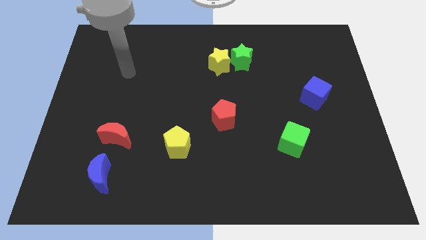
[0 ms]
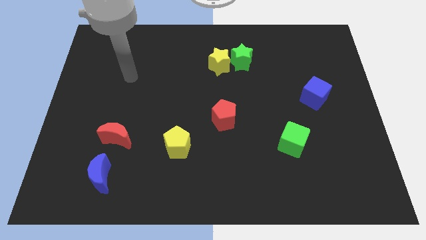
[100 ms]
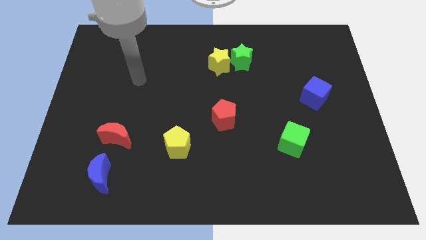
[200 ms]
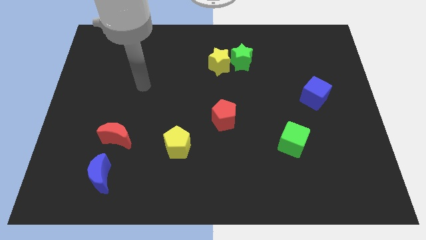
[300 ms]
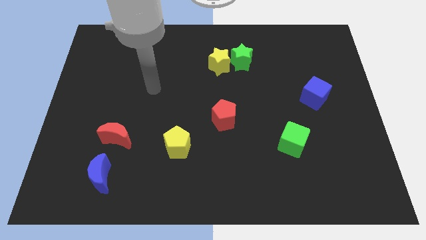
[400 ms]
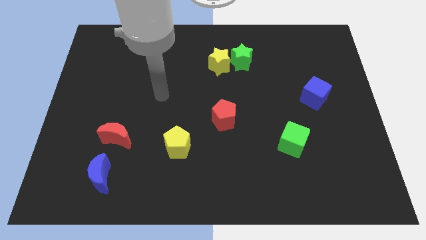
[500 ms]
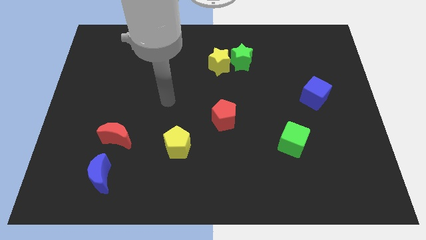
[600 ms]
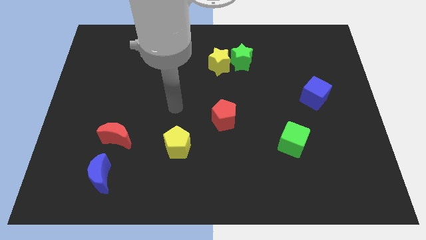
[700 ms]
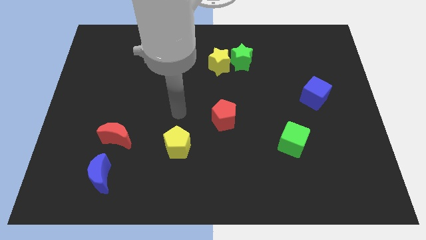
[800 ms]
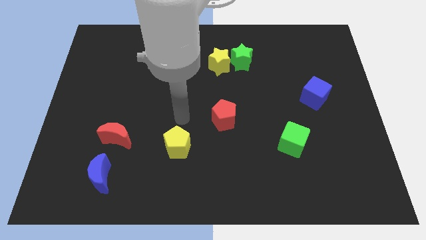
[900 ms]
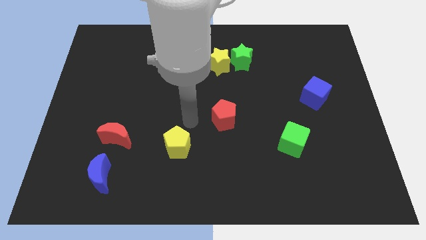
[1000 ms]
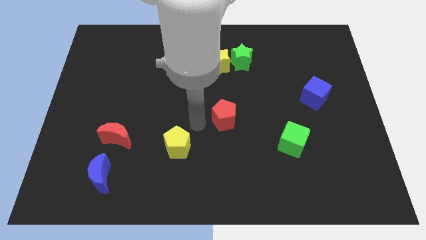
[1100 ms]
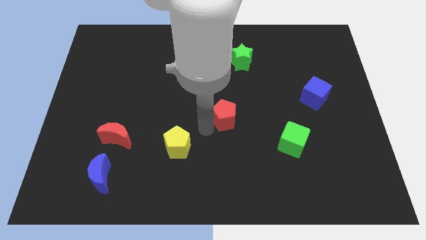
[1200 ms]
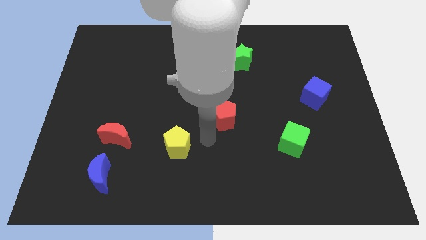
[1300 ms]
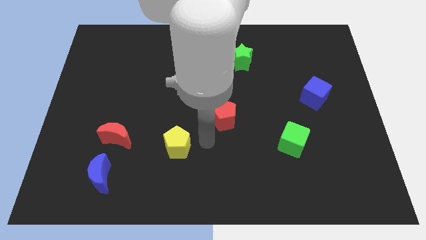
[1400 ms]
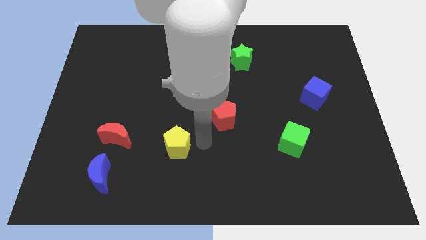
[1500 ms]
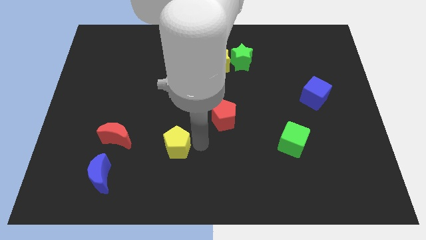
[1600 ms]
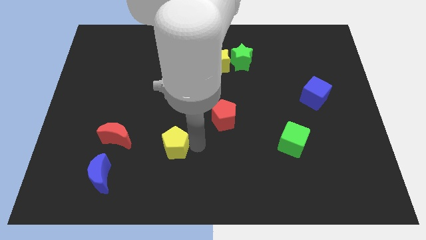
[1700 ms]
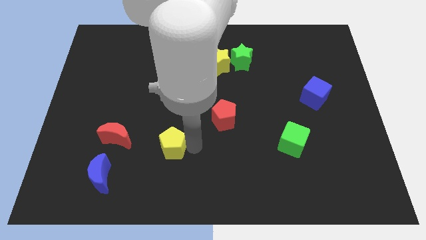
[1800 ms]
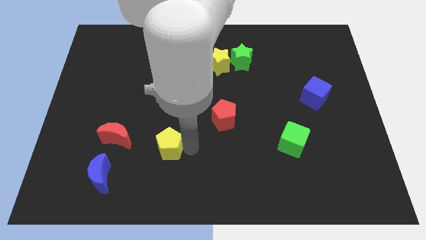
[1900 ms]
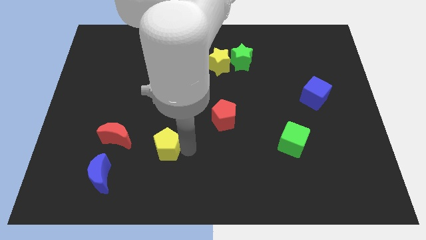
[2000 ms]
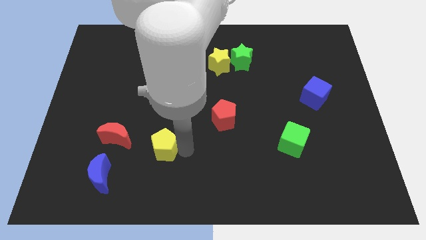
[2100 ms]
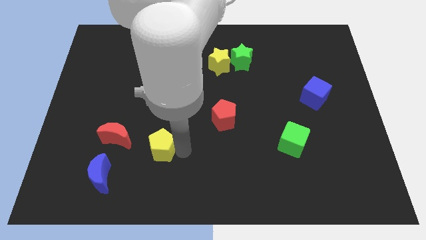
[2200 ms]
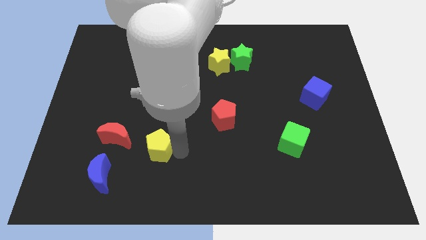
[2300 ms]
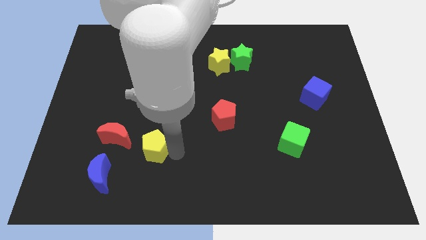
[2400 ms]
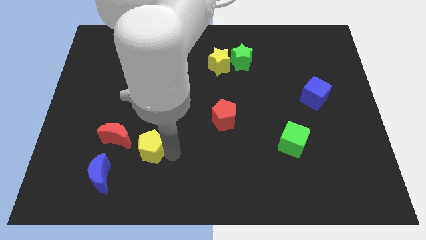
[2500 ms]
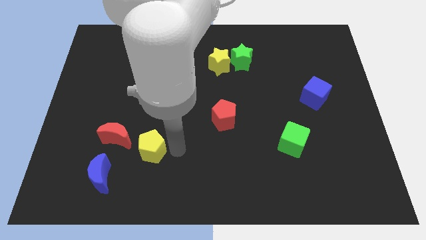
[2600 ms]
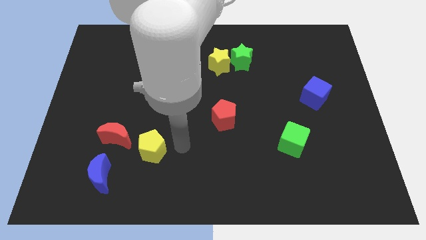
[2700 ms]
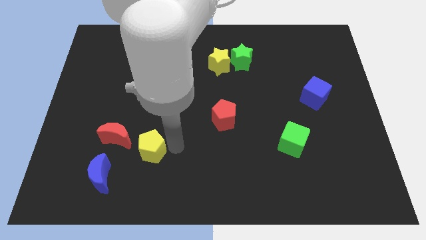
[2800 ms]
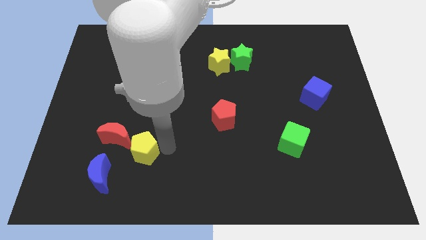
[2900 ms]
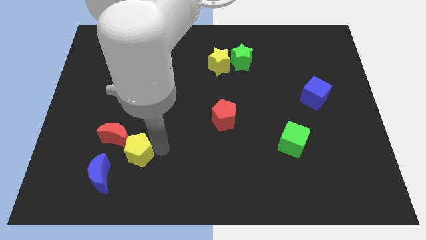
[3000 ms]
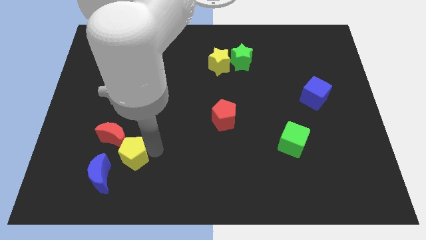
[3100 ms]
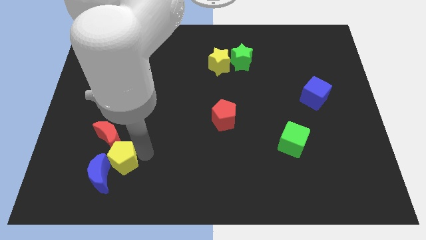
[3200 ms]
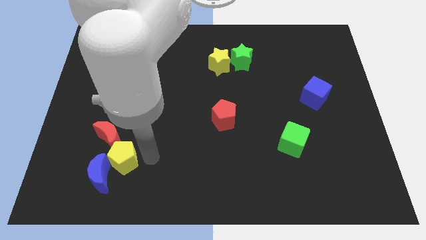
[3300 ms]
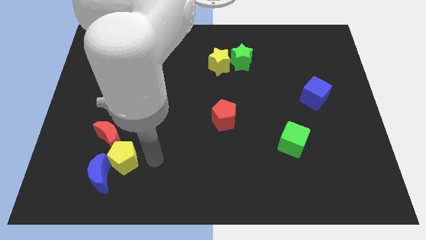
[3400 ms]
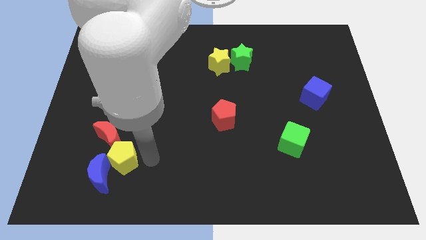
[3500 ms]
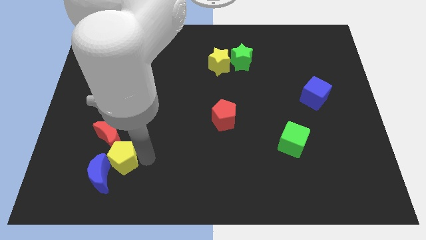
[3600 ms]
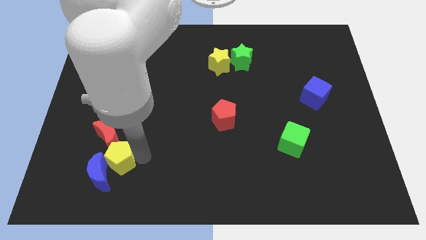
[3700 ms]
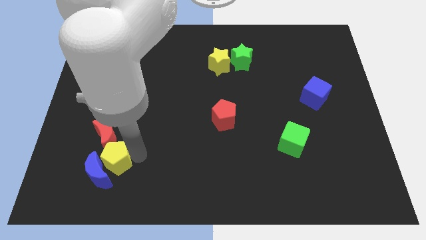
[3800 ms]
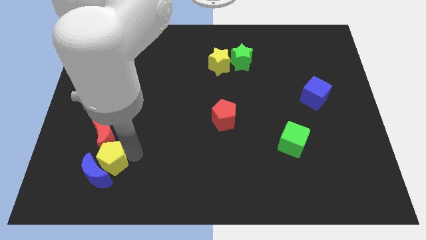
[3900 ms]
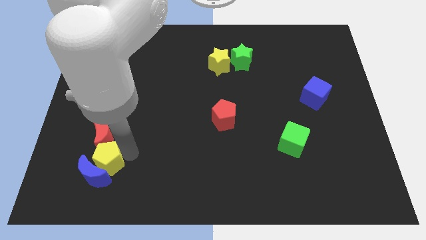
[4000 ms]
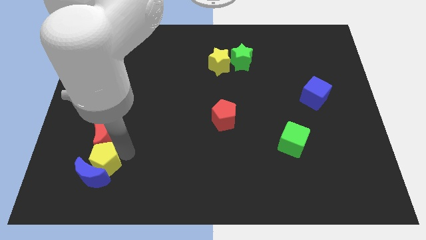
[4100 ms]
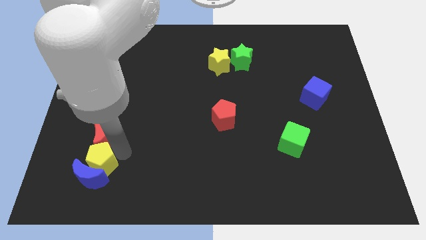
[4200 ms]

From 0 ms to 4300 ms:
put the yellow pentagon diagonally down and to the left of the red moon

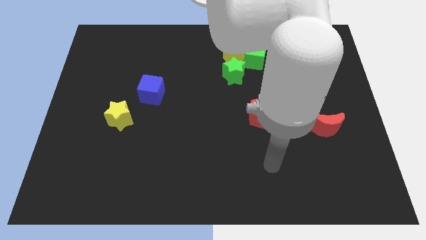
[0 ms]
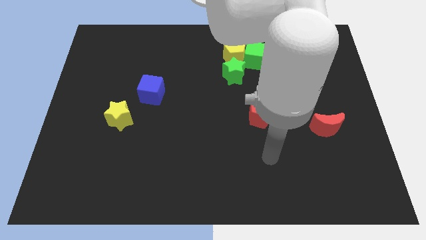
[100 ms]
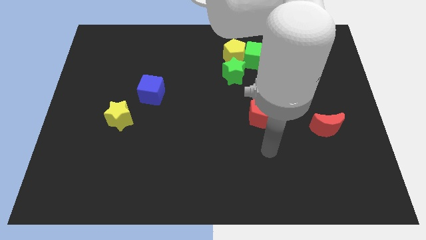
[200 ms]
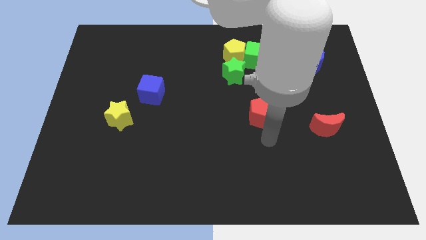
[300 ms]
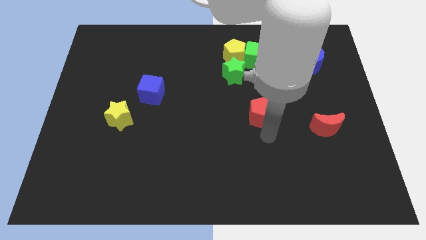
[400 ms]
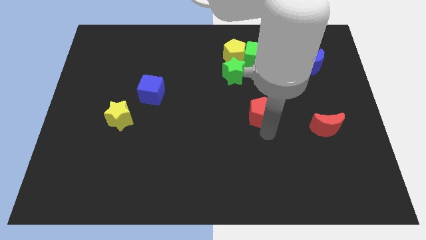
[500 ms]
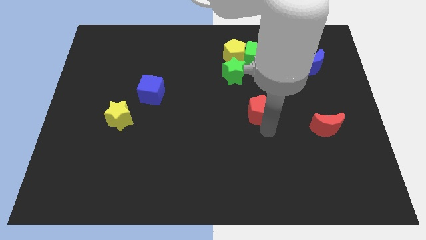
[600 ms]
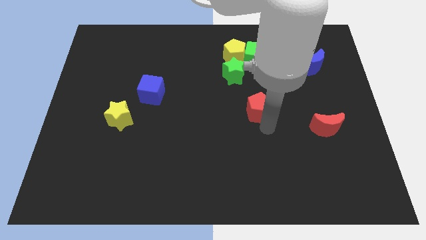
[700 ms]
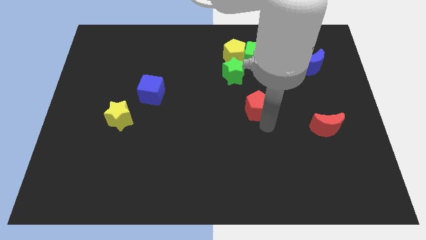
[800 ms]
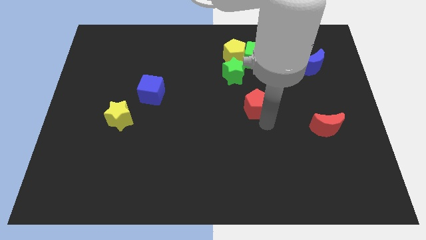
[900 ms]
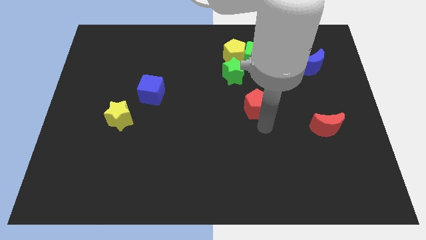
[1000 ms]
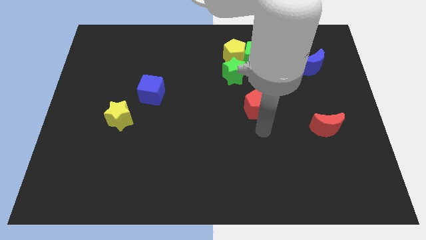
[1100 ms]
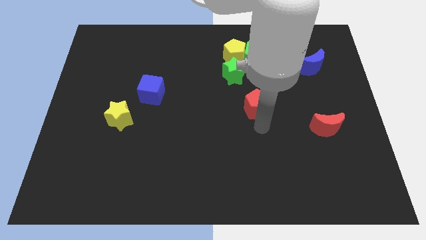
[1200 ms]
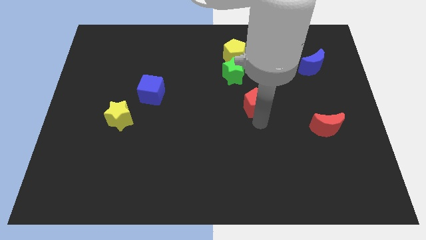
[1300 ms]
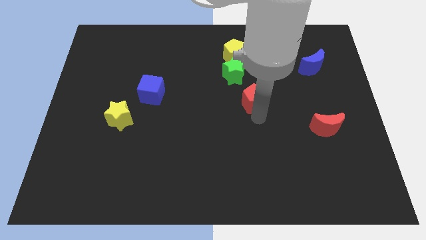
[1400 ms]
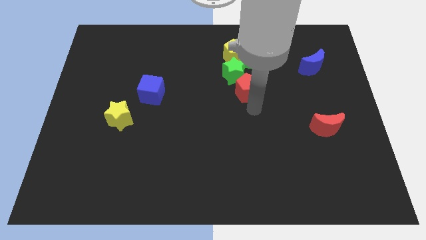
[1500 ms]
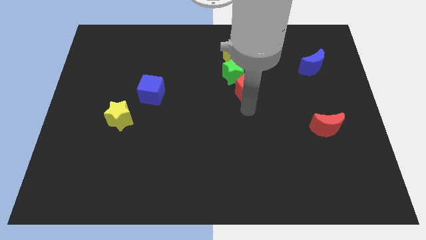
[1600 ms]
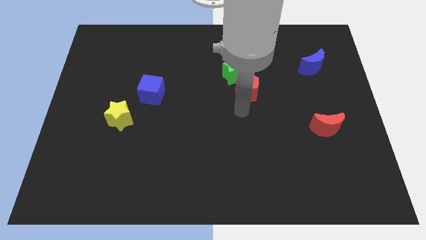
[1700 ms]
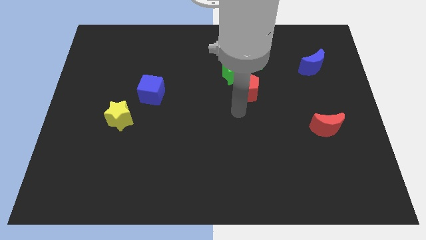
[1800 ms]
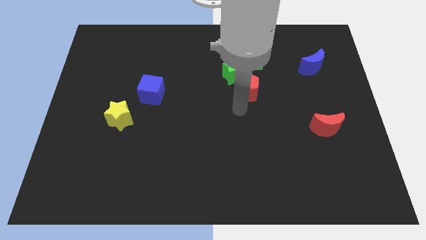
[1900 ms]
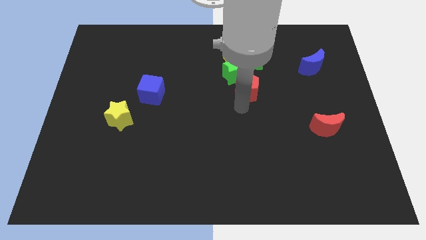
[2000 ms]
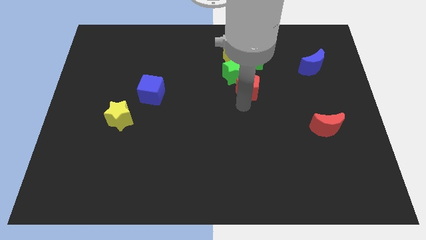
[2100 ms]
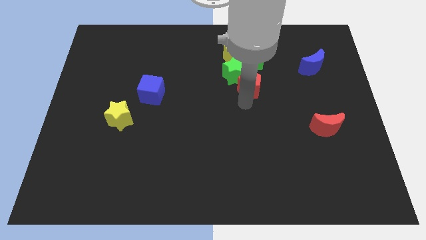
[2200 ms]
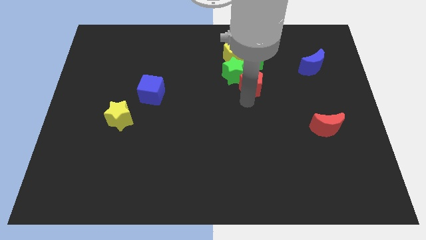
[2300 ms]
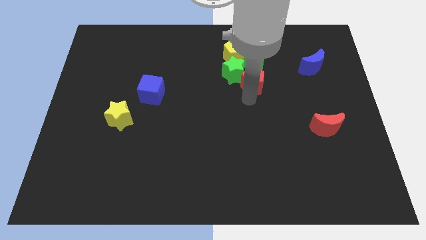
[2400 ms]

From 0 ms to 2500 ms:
push the red pentagon diagonally down and to the right of the yellow pentagon

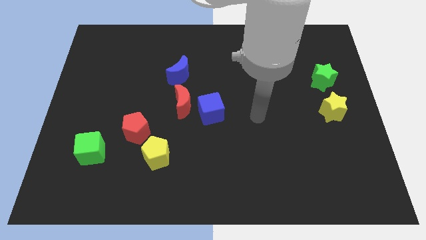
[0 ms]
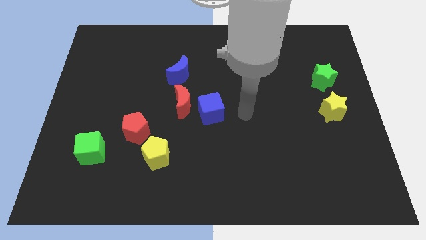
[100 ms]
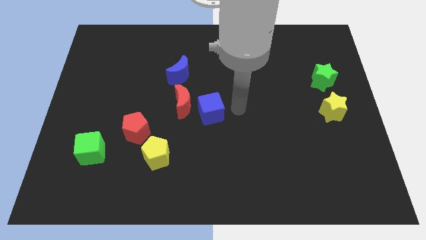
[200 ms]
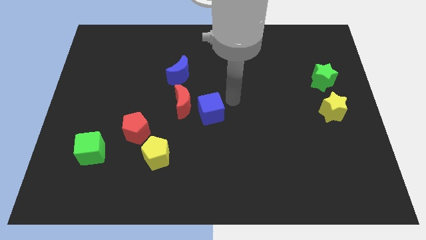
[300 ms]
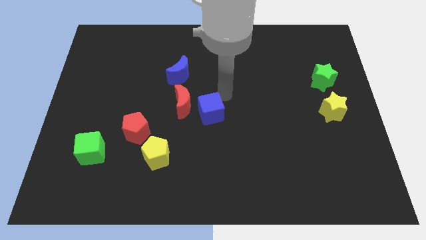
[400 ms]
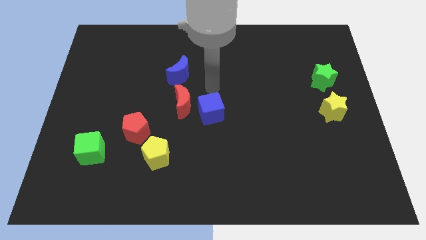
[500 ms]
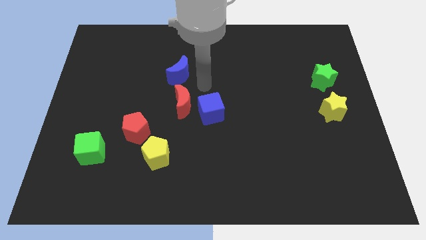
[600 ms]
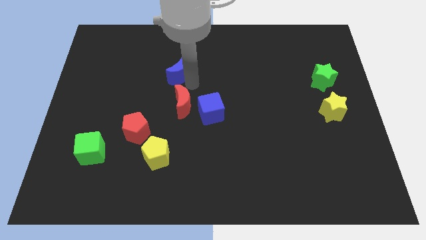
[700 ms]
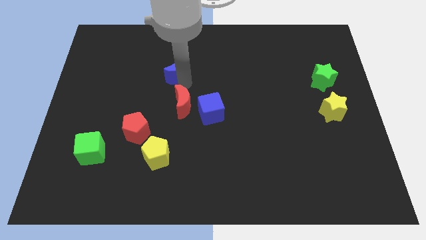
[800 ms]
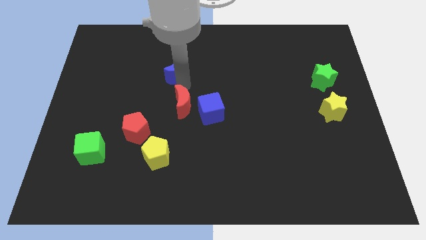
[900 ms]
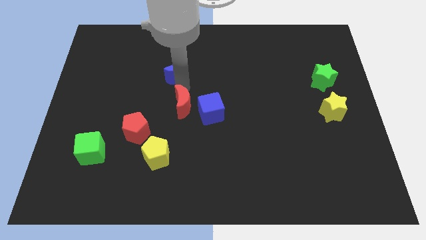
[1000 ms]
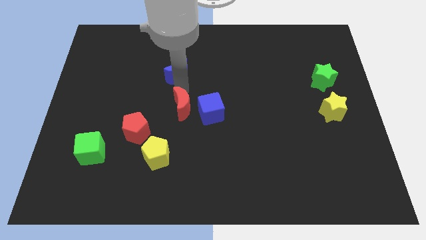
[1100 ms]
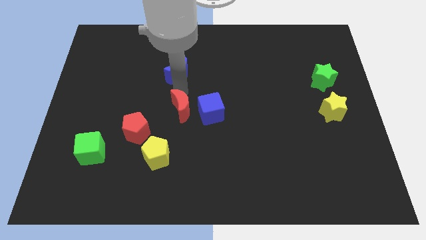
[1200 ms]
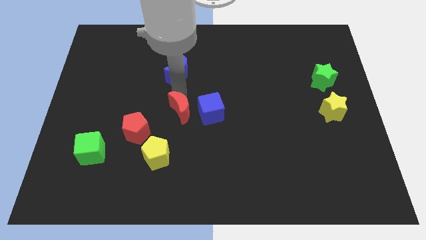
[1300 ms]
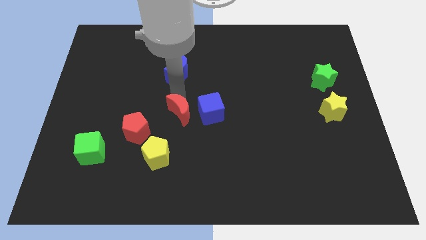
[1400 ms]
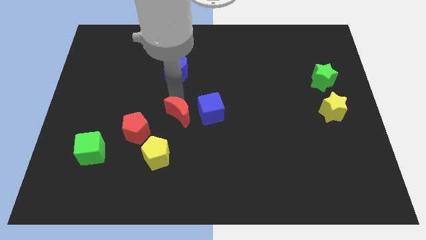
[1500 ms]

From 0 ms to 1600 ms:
move the red moon to the right side of the red pentagon
